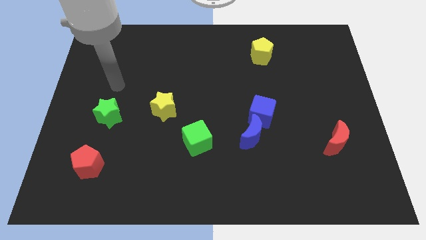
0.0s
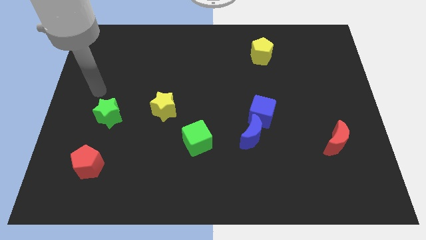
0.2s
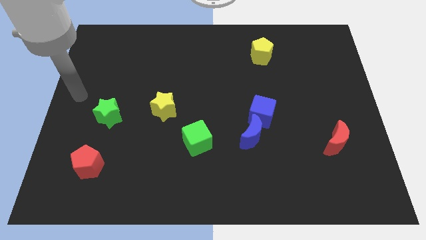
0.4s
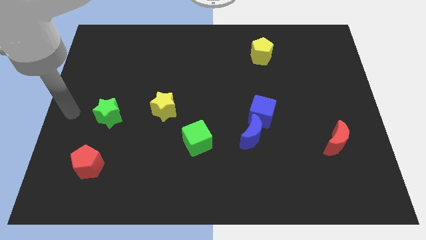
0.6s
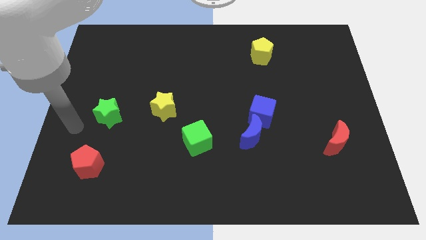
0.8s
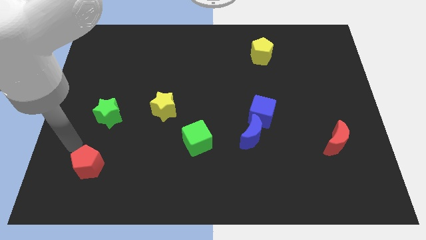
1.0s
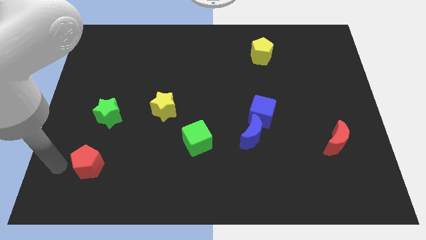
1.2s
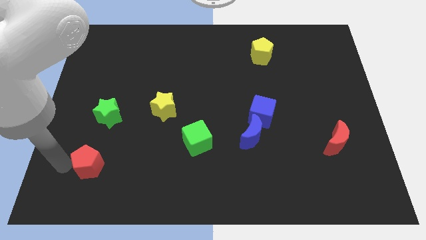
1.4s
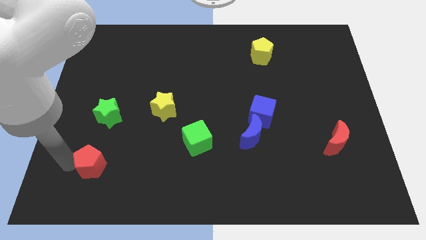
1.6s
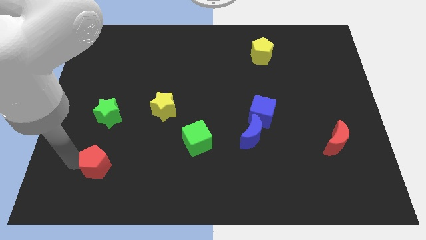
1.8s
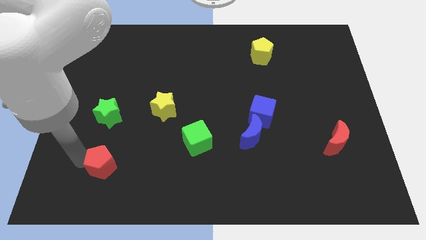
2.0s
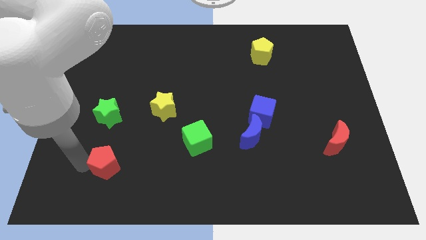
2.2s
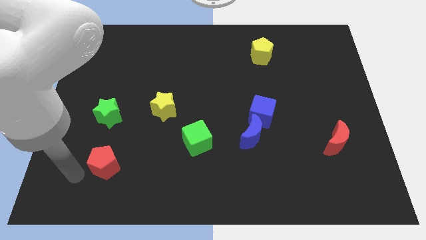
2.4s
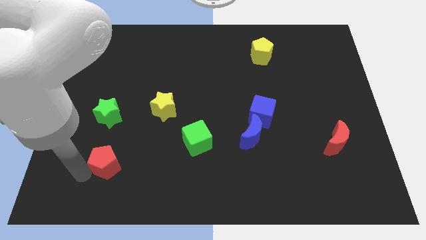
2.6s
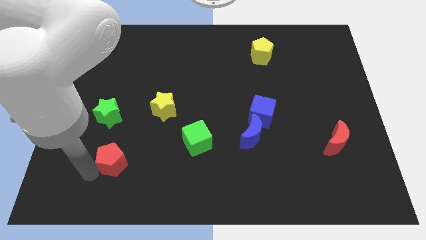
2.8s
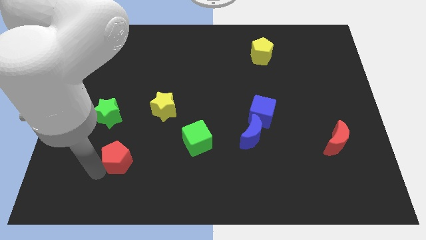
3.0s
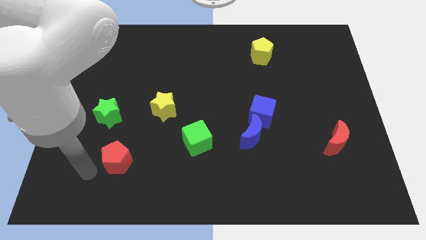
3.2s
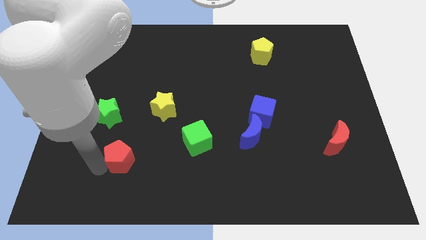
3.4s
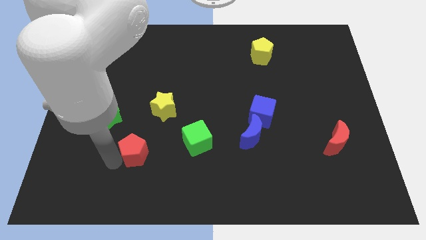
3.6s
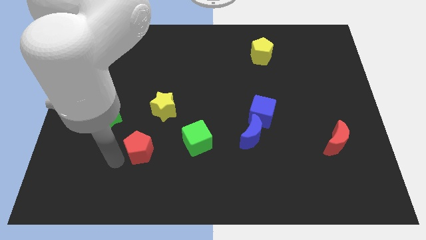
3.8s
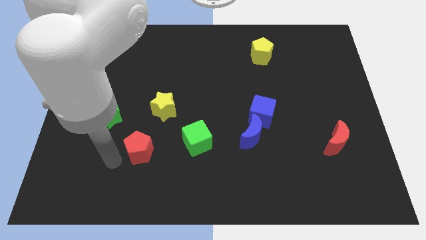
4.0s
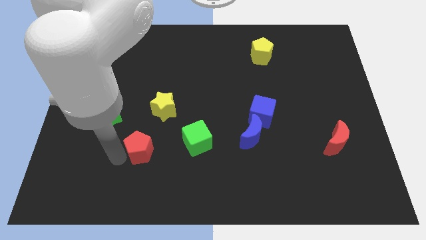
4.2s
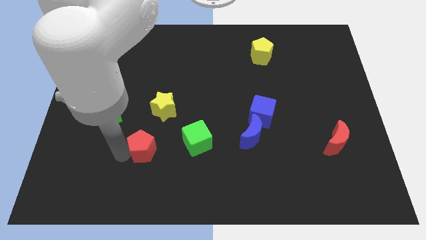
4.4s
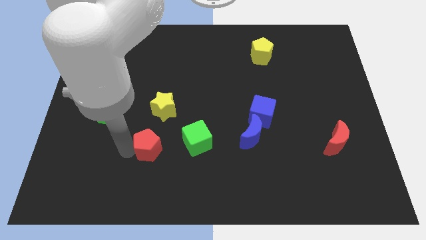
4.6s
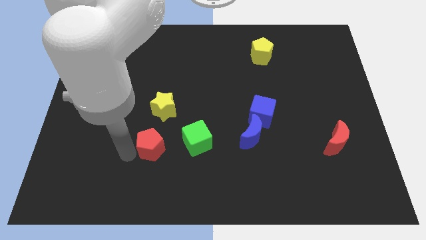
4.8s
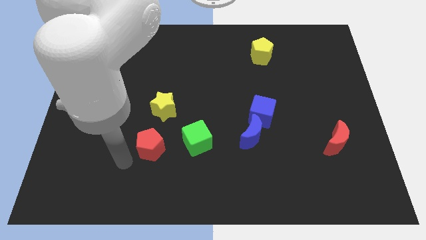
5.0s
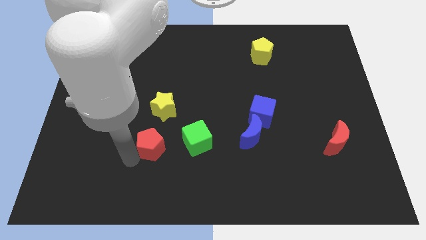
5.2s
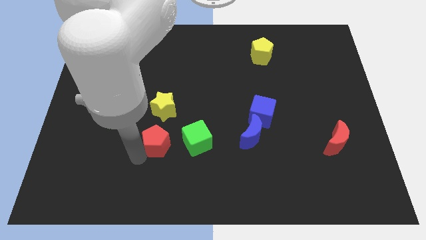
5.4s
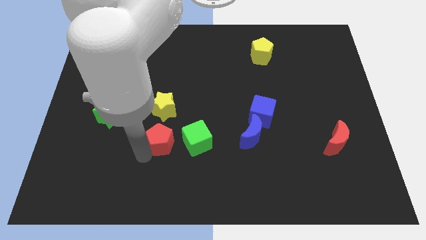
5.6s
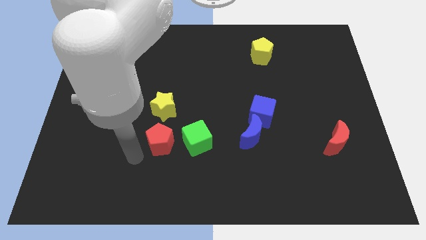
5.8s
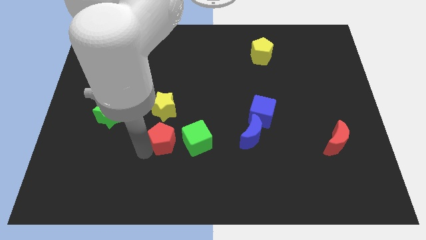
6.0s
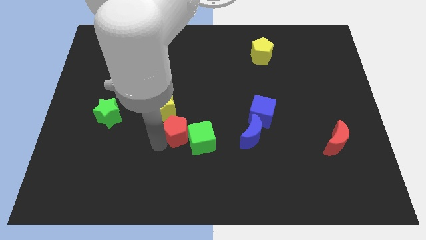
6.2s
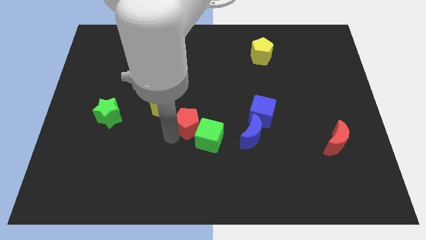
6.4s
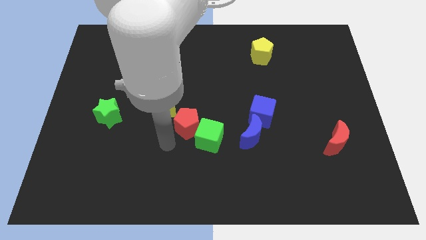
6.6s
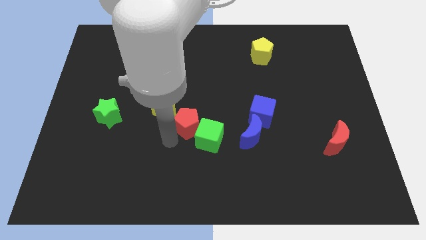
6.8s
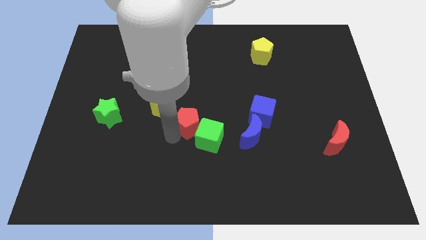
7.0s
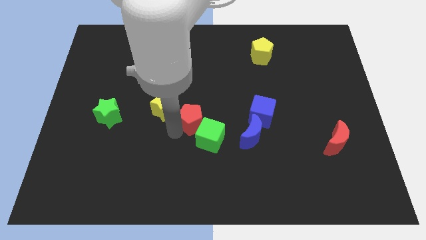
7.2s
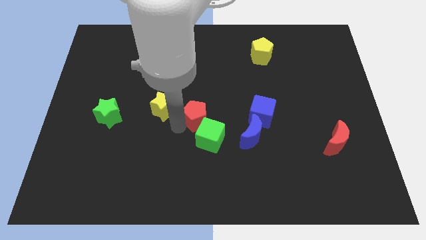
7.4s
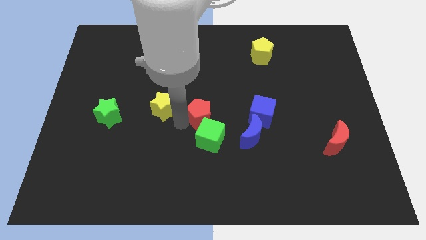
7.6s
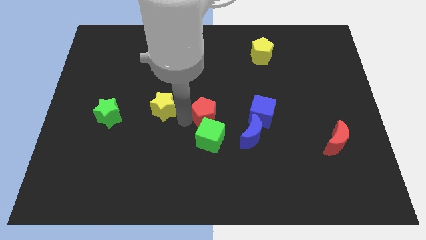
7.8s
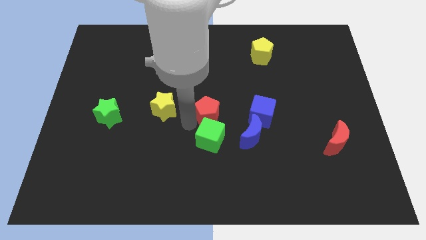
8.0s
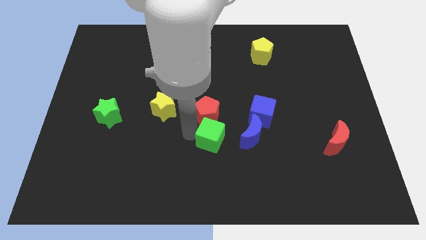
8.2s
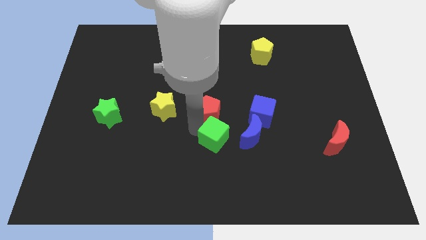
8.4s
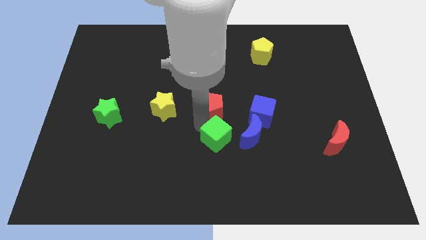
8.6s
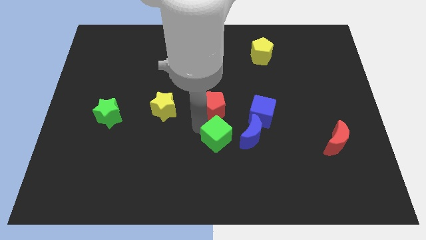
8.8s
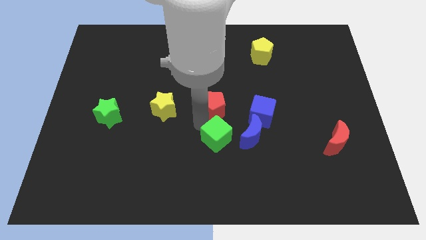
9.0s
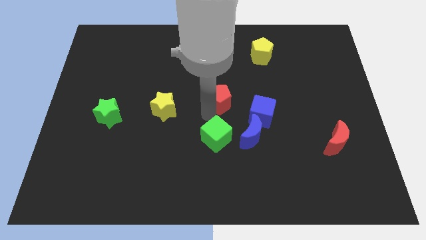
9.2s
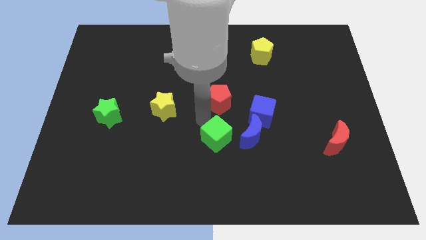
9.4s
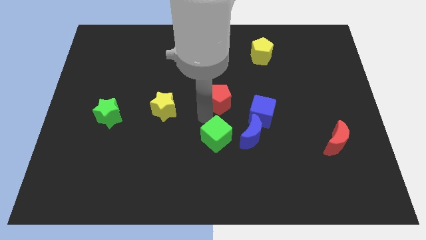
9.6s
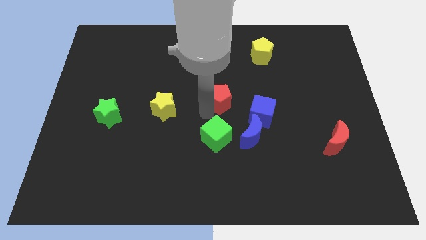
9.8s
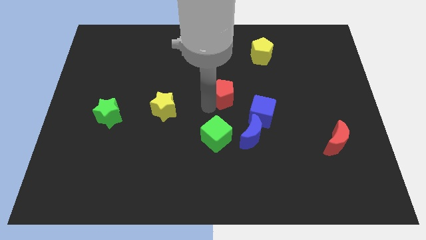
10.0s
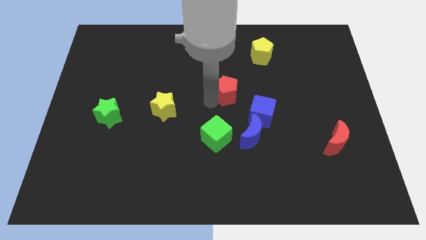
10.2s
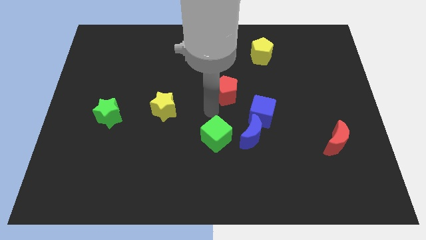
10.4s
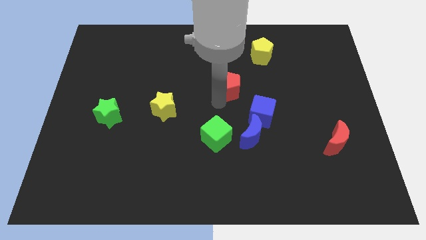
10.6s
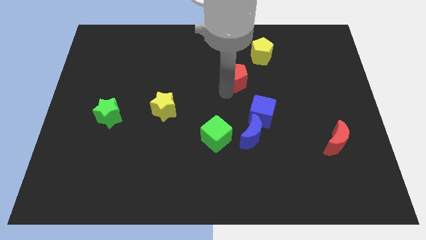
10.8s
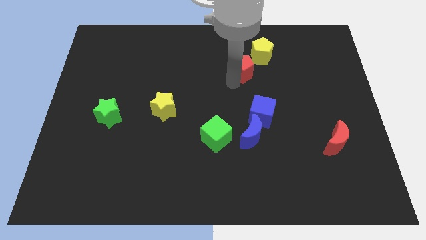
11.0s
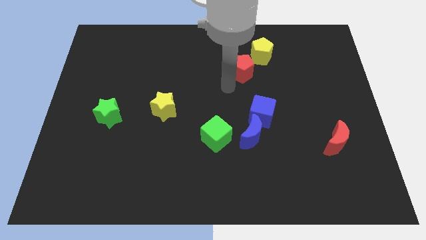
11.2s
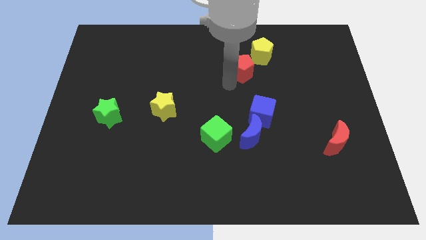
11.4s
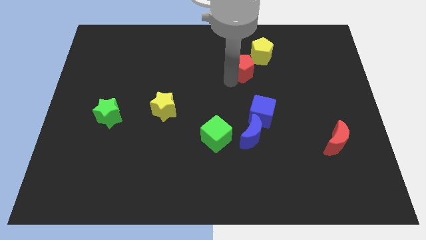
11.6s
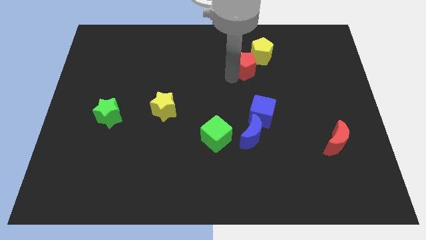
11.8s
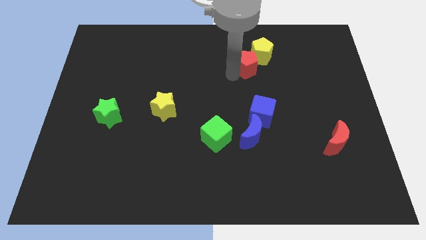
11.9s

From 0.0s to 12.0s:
slide the red pentagon to the yellow pentagon

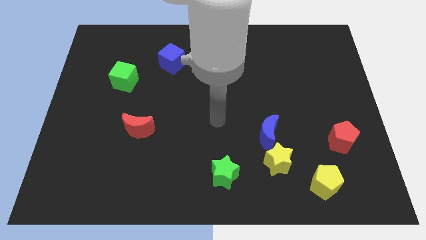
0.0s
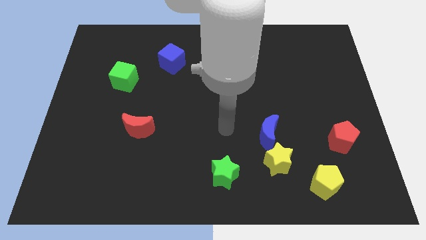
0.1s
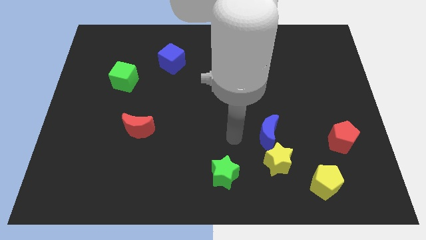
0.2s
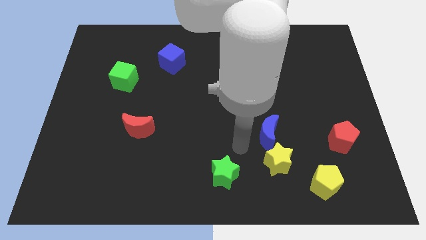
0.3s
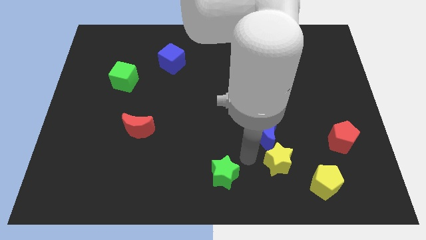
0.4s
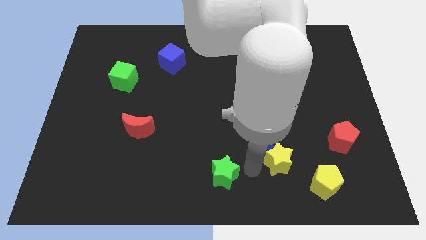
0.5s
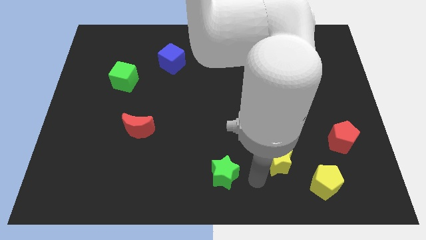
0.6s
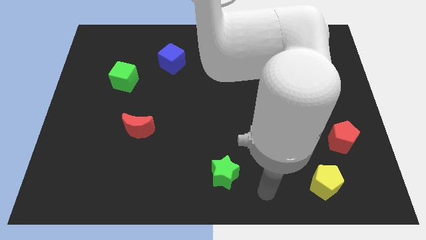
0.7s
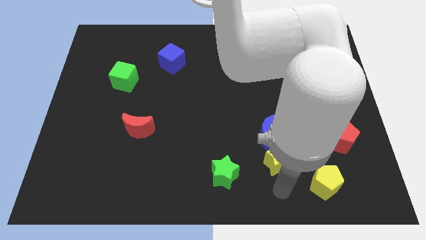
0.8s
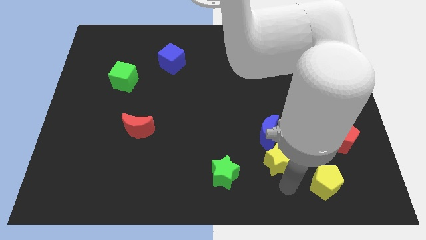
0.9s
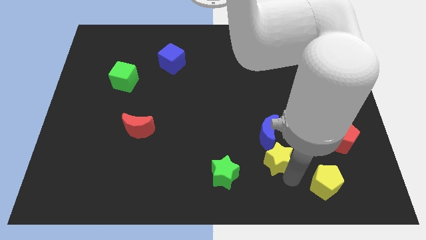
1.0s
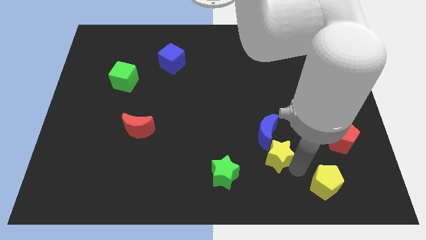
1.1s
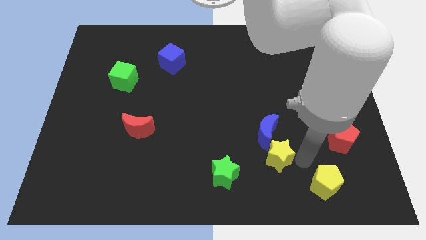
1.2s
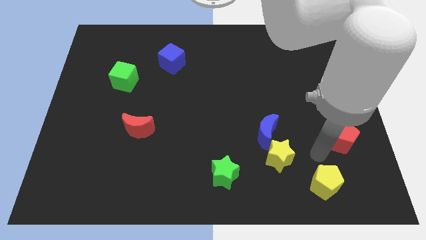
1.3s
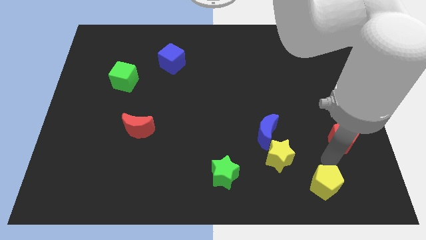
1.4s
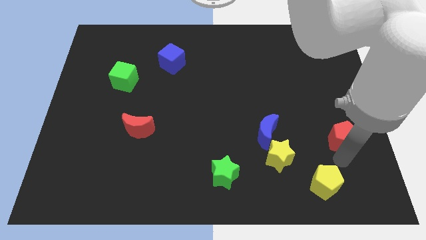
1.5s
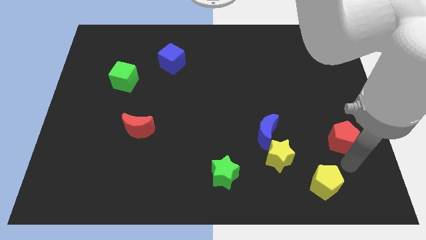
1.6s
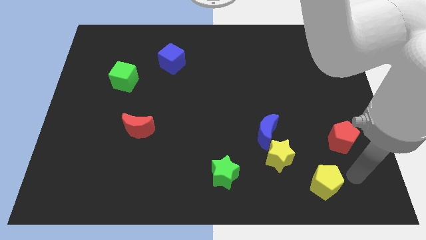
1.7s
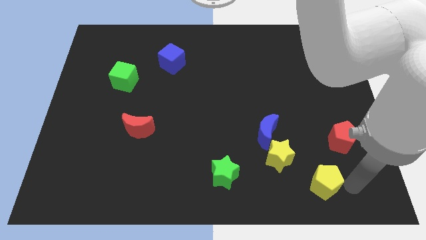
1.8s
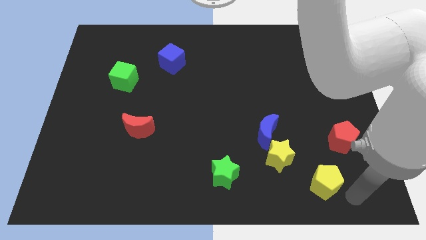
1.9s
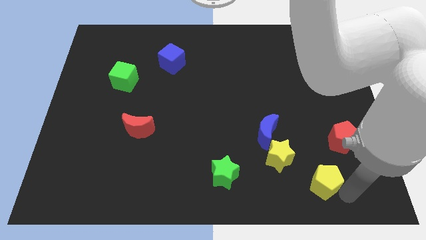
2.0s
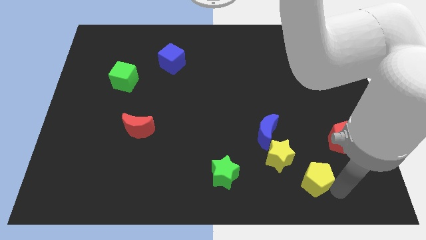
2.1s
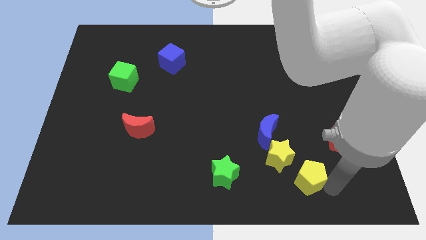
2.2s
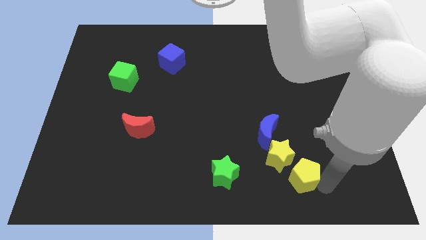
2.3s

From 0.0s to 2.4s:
push the yellow pentagon close to the yellow star
